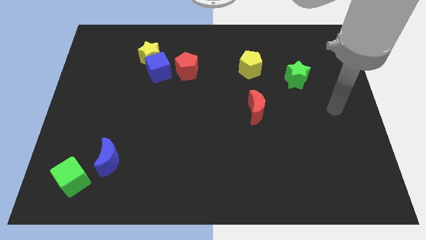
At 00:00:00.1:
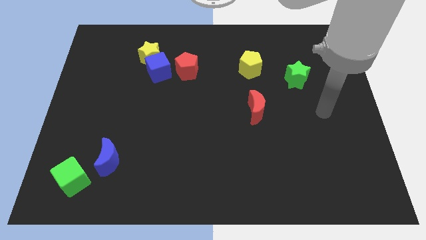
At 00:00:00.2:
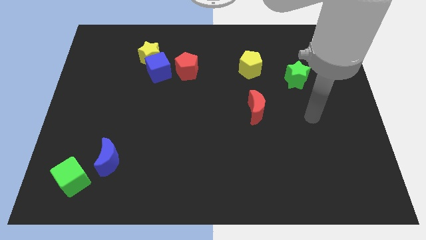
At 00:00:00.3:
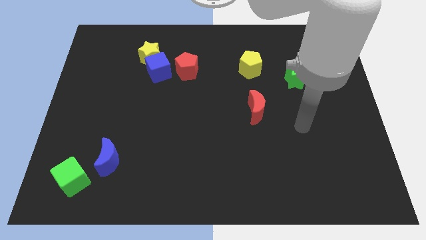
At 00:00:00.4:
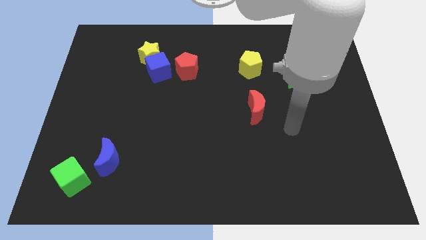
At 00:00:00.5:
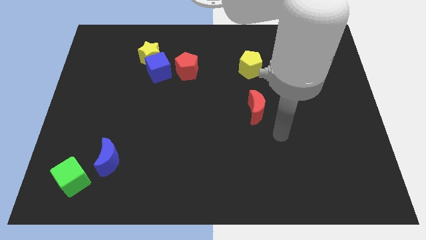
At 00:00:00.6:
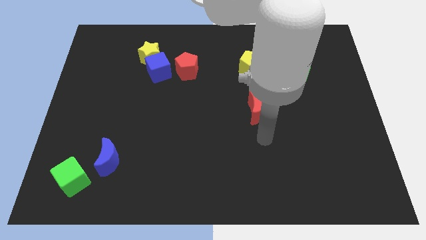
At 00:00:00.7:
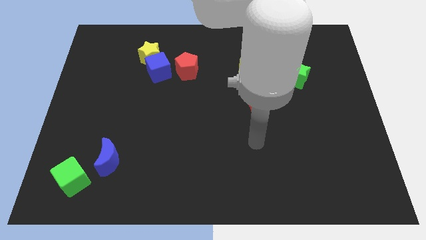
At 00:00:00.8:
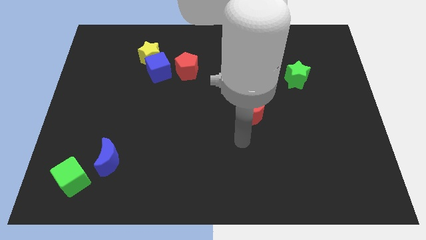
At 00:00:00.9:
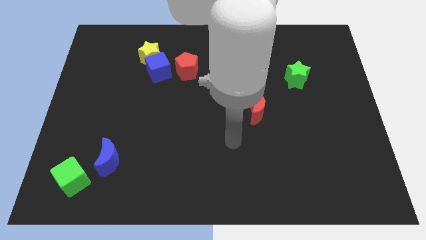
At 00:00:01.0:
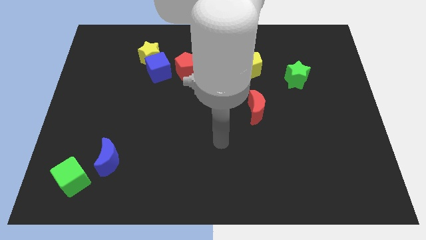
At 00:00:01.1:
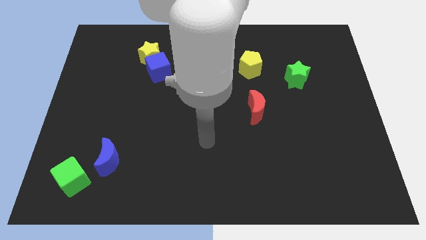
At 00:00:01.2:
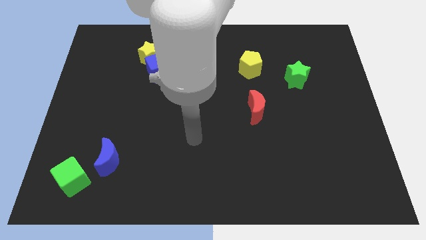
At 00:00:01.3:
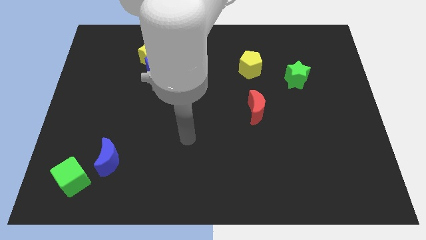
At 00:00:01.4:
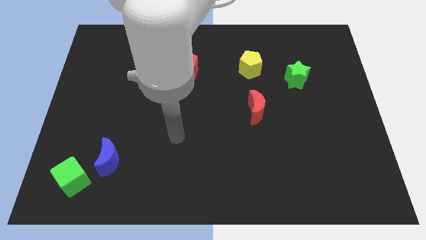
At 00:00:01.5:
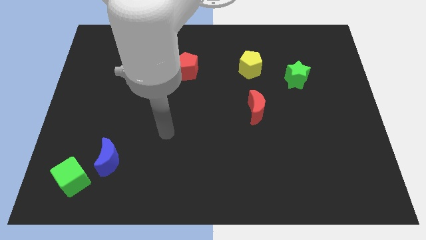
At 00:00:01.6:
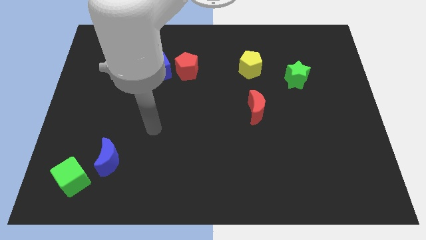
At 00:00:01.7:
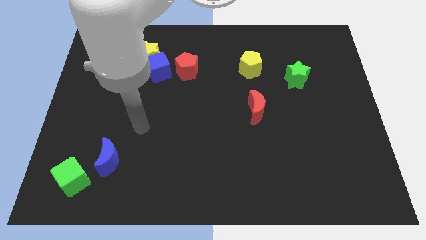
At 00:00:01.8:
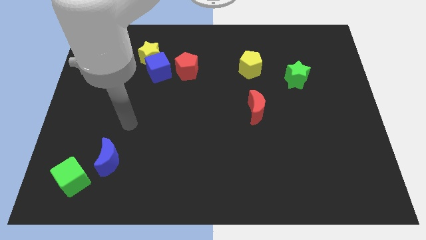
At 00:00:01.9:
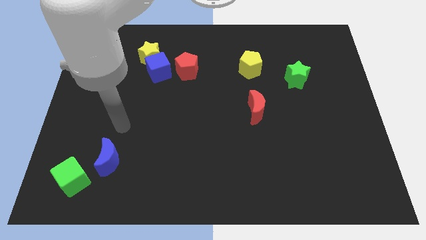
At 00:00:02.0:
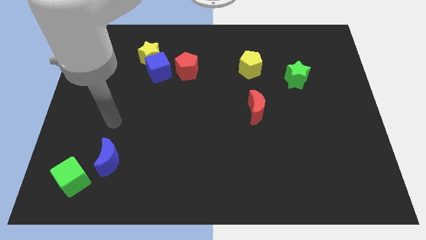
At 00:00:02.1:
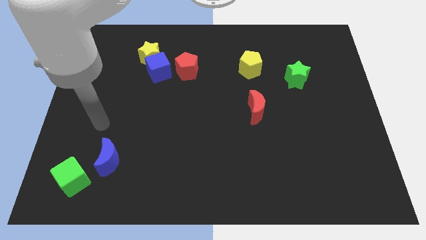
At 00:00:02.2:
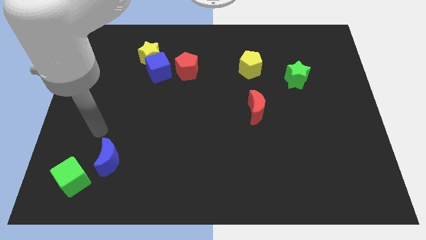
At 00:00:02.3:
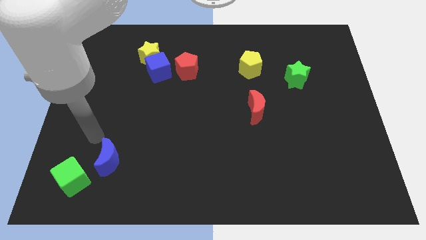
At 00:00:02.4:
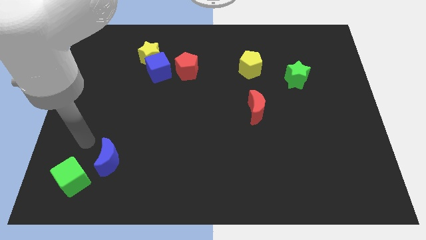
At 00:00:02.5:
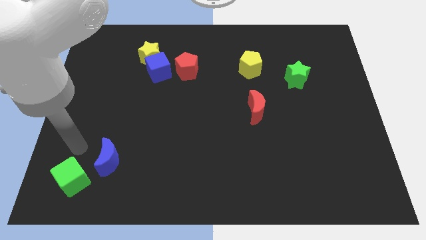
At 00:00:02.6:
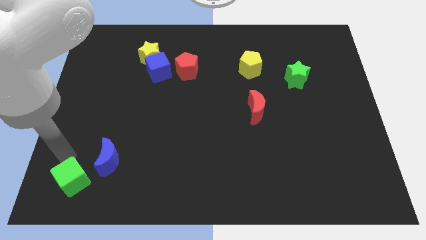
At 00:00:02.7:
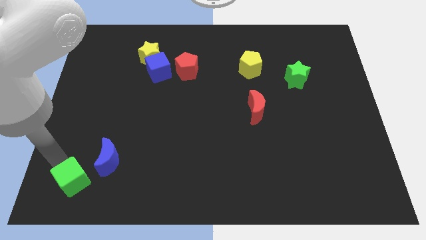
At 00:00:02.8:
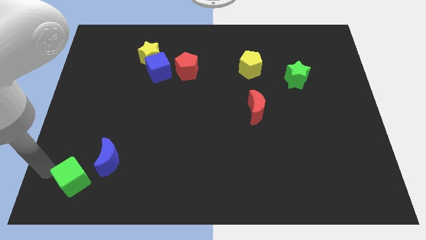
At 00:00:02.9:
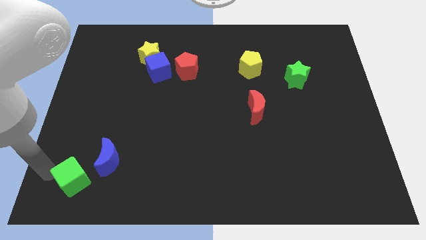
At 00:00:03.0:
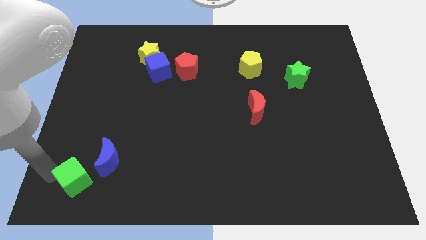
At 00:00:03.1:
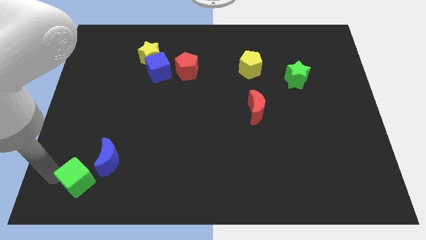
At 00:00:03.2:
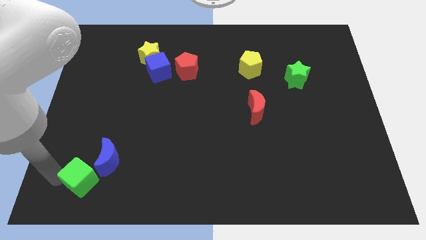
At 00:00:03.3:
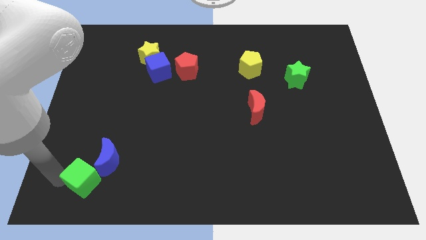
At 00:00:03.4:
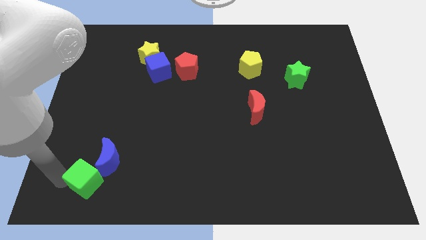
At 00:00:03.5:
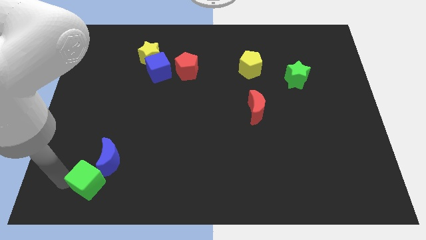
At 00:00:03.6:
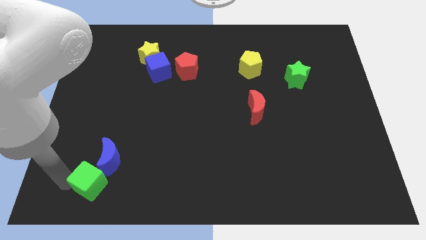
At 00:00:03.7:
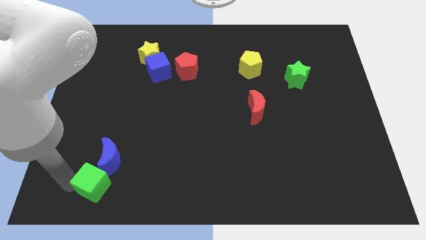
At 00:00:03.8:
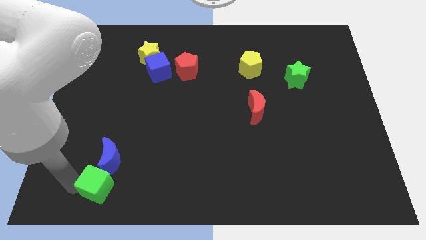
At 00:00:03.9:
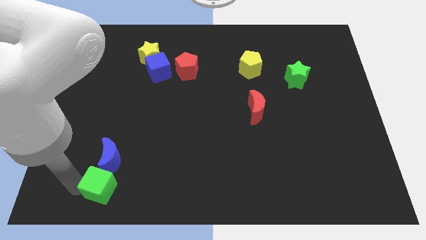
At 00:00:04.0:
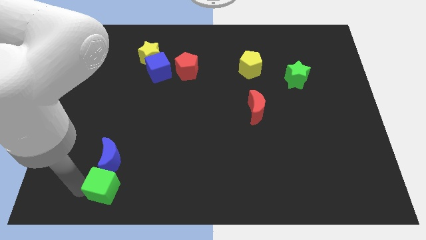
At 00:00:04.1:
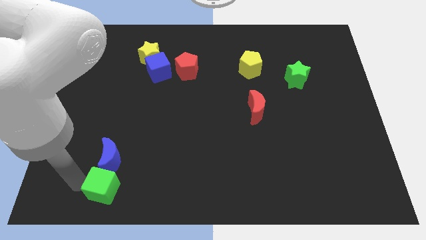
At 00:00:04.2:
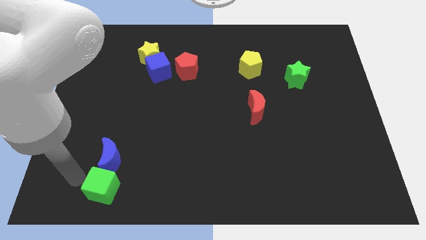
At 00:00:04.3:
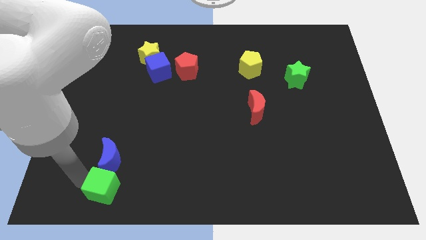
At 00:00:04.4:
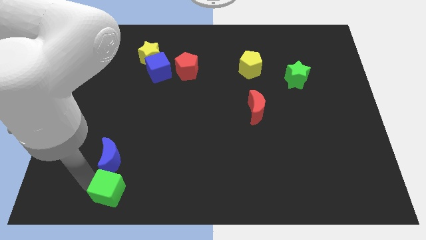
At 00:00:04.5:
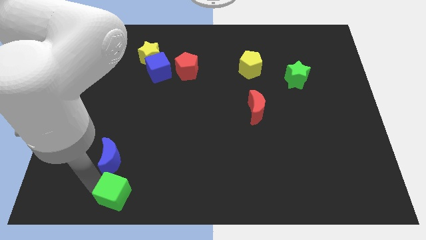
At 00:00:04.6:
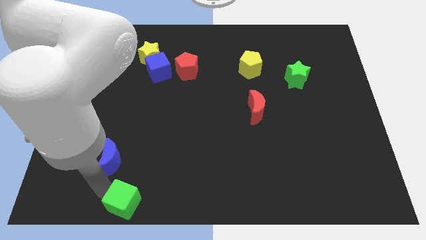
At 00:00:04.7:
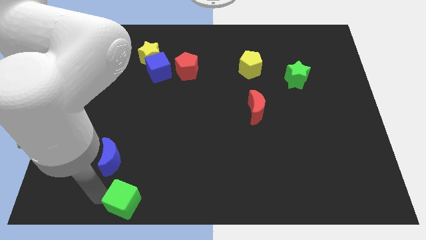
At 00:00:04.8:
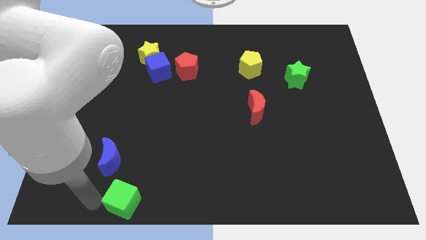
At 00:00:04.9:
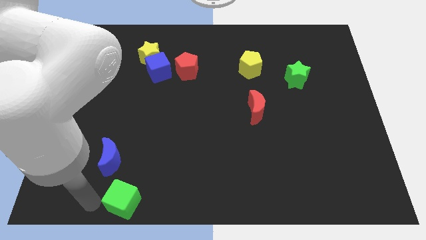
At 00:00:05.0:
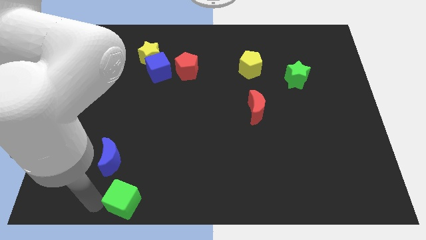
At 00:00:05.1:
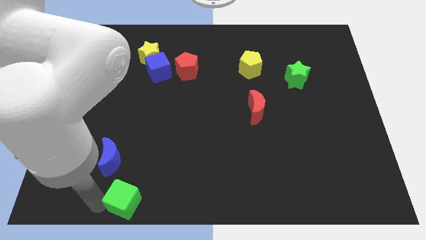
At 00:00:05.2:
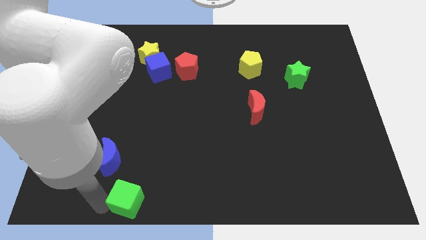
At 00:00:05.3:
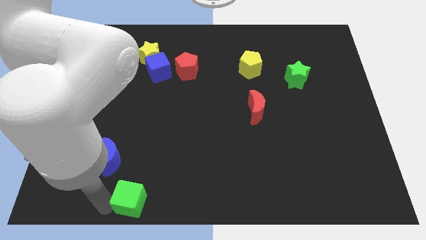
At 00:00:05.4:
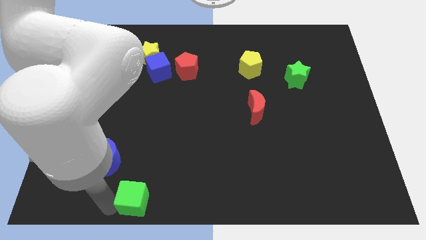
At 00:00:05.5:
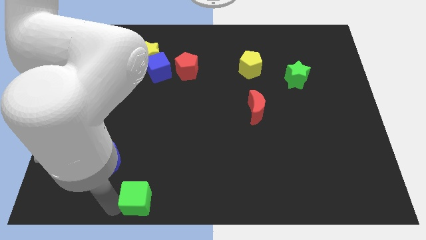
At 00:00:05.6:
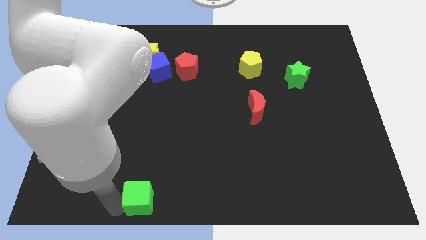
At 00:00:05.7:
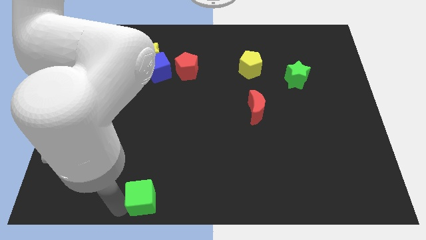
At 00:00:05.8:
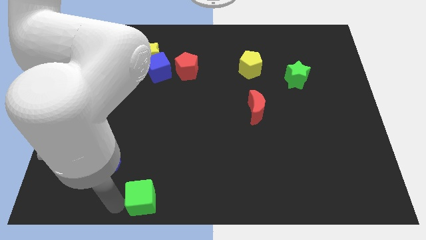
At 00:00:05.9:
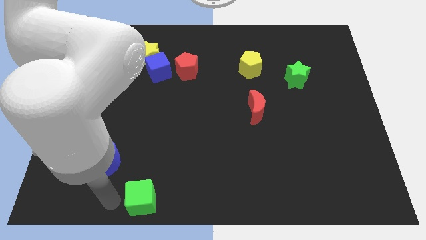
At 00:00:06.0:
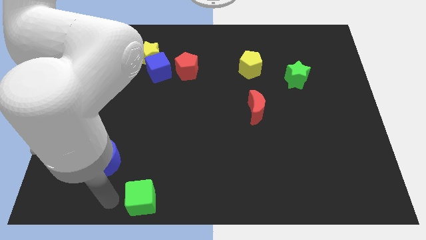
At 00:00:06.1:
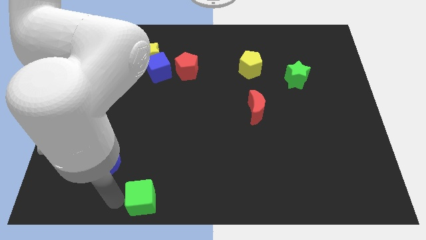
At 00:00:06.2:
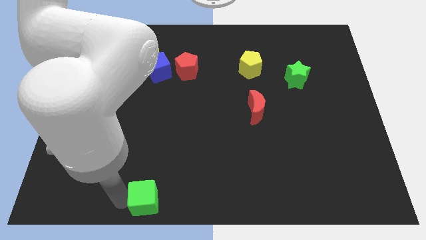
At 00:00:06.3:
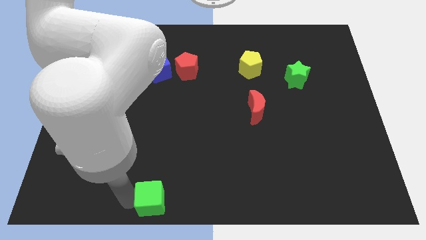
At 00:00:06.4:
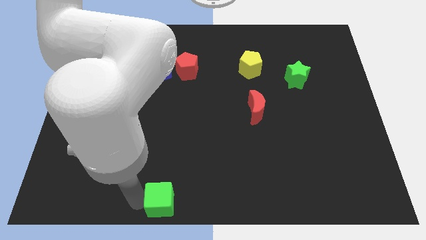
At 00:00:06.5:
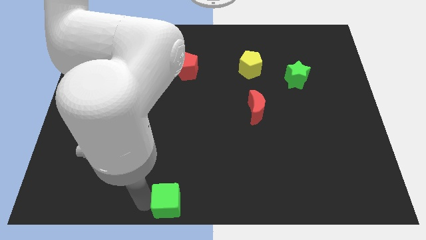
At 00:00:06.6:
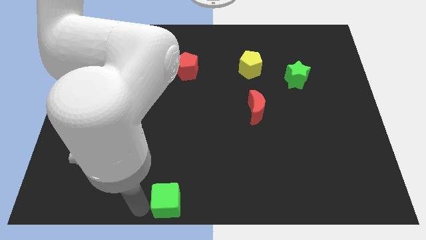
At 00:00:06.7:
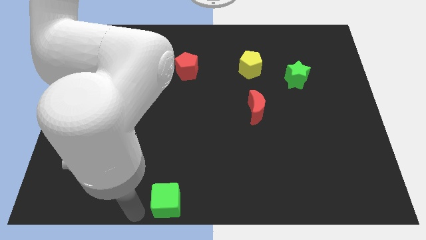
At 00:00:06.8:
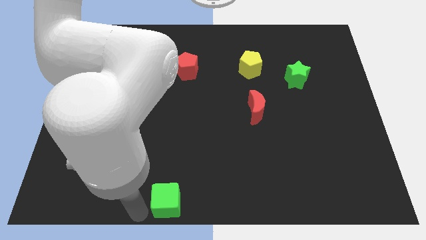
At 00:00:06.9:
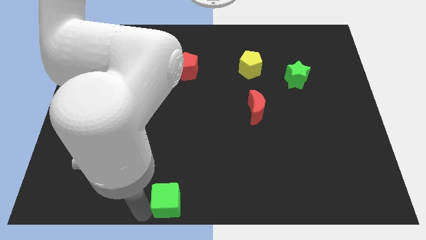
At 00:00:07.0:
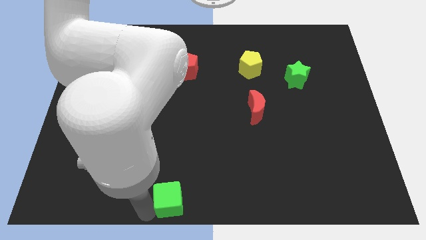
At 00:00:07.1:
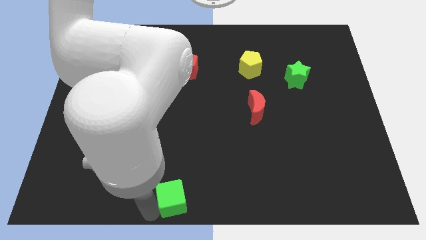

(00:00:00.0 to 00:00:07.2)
slide the green cube right

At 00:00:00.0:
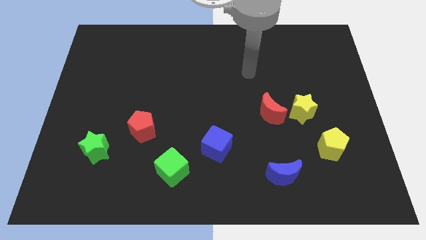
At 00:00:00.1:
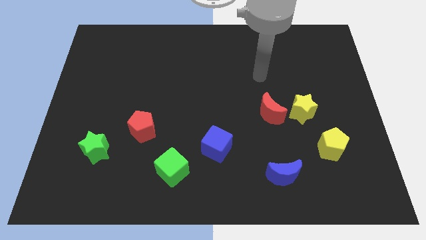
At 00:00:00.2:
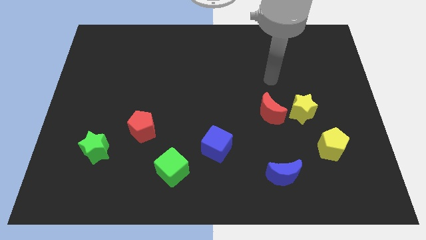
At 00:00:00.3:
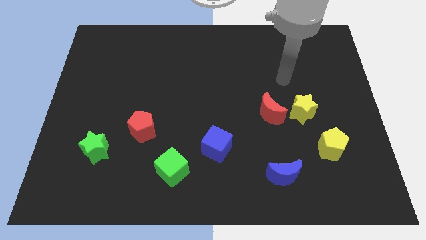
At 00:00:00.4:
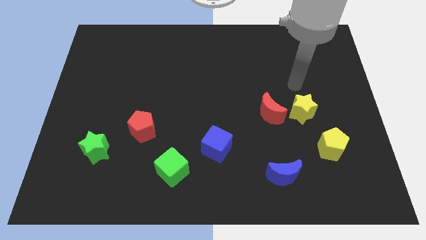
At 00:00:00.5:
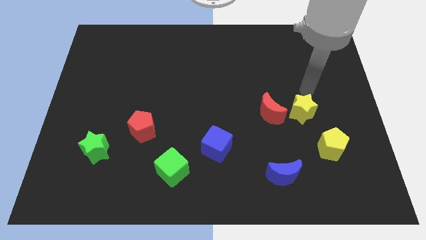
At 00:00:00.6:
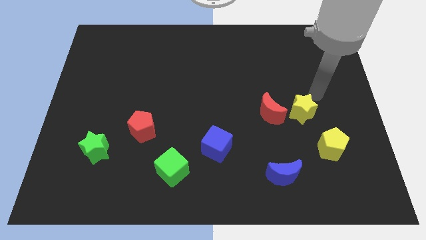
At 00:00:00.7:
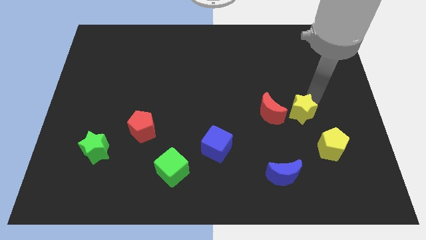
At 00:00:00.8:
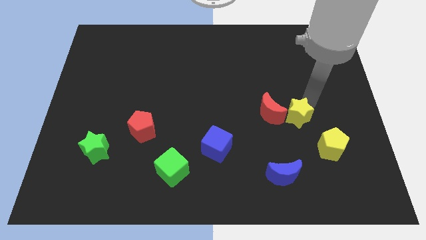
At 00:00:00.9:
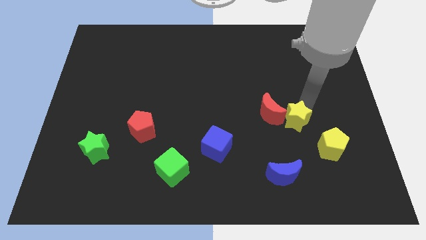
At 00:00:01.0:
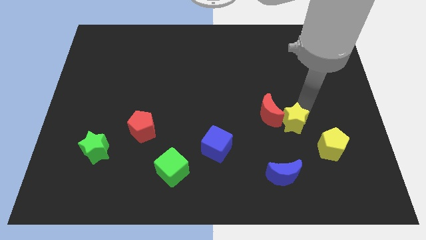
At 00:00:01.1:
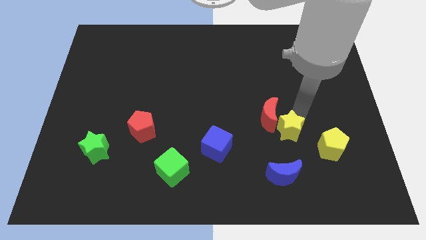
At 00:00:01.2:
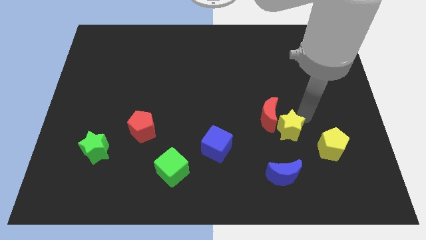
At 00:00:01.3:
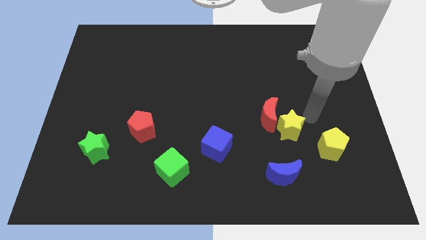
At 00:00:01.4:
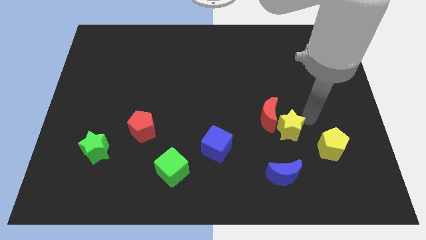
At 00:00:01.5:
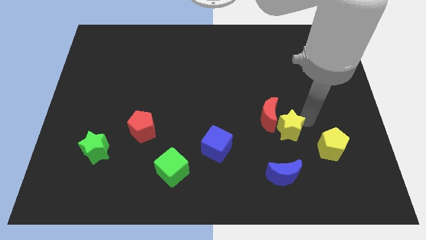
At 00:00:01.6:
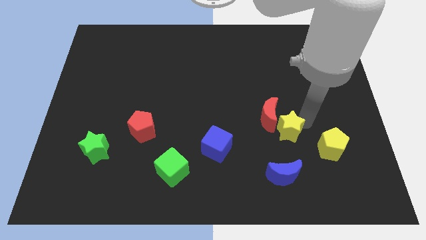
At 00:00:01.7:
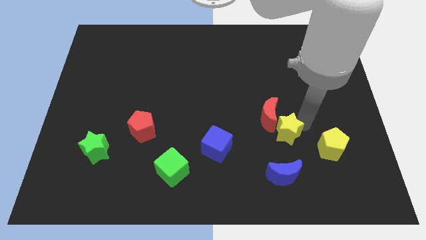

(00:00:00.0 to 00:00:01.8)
slightly move the yellow star down and to the left diagonally
